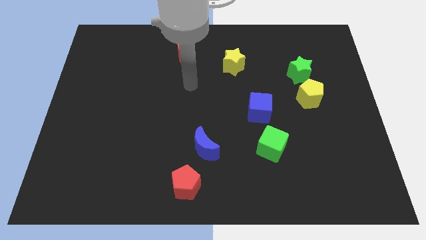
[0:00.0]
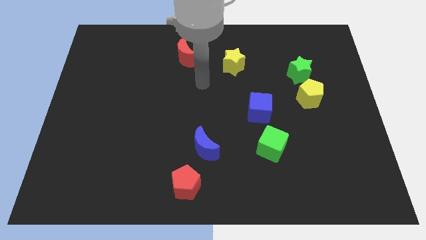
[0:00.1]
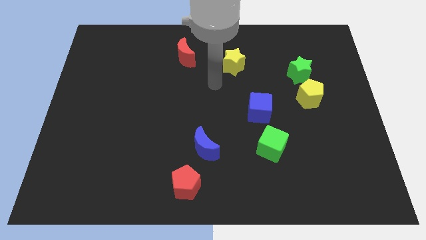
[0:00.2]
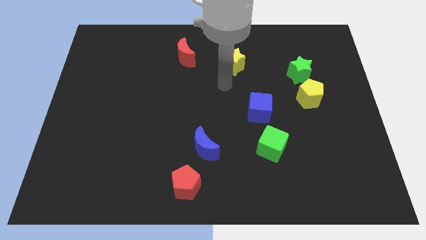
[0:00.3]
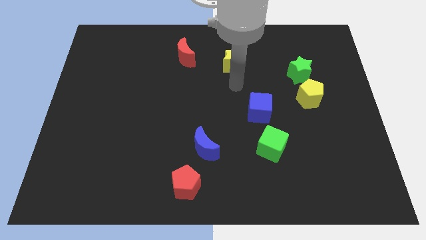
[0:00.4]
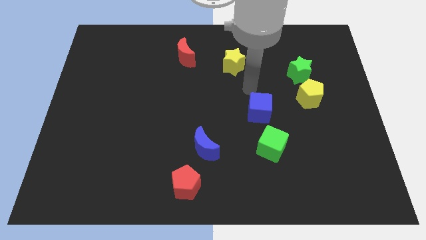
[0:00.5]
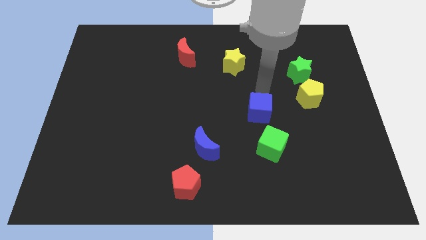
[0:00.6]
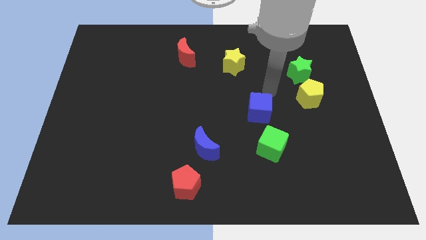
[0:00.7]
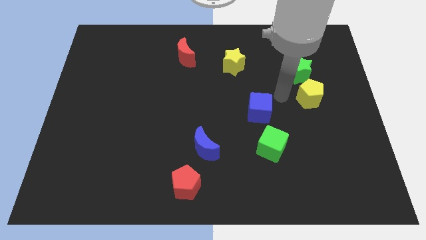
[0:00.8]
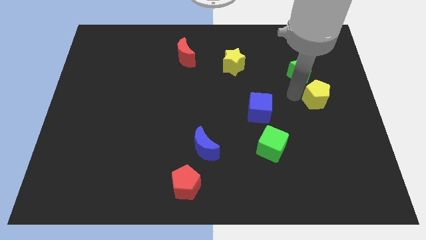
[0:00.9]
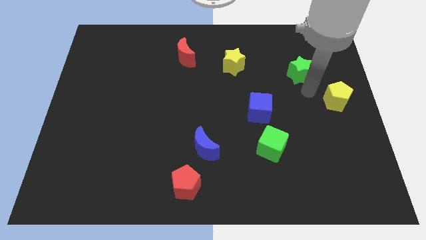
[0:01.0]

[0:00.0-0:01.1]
pull the green star apart from the yellow pentagon

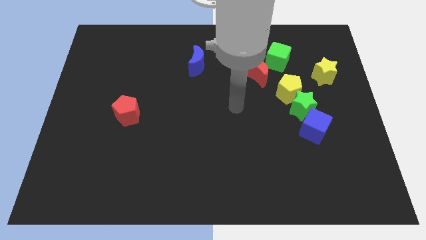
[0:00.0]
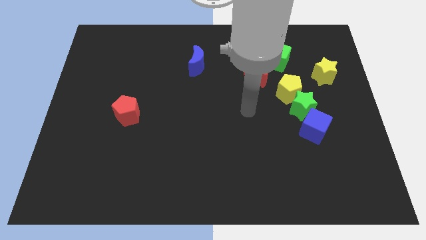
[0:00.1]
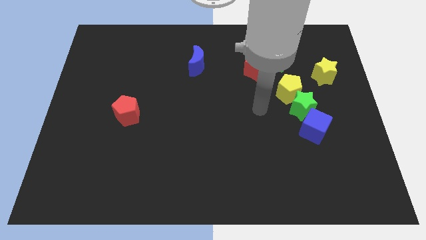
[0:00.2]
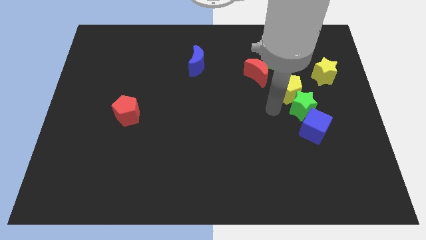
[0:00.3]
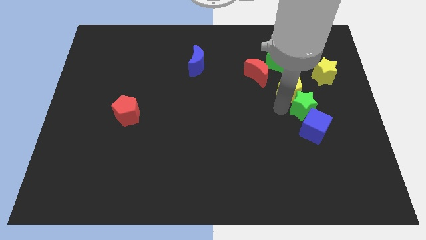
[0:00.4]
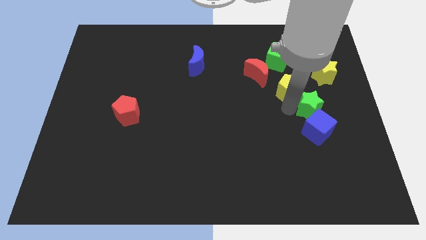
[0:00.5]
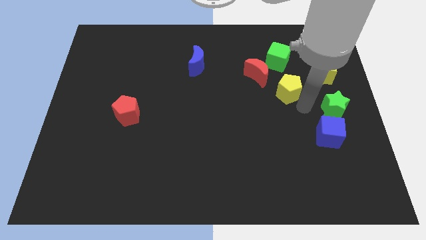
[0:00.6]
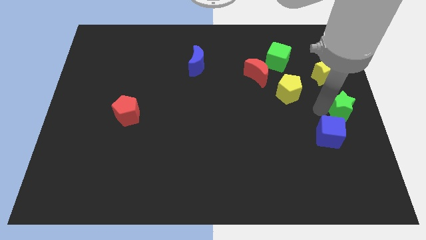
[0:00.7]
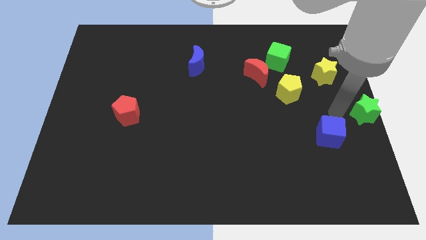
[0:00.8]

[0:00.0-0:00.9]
separate the blue cube from the green star

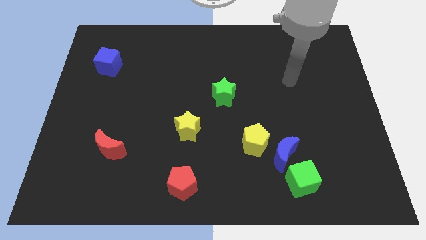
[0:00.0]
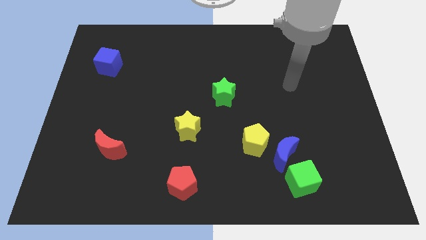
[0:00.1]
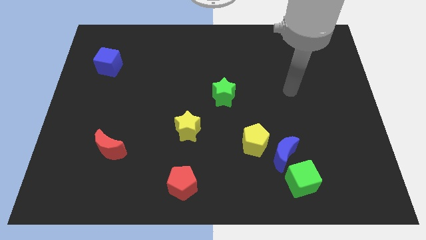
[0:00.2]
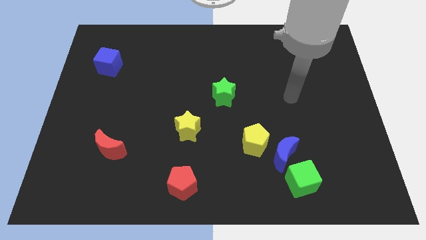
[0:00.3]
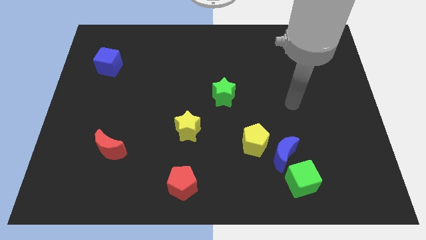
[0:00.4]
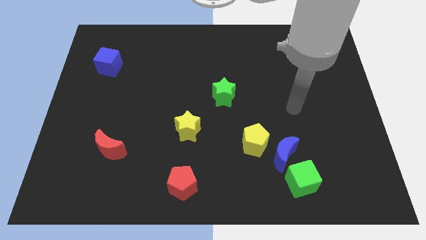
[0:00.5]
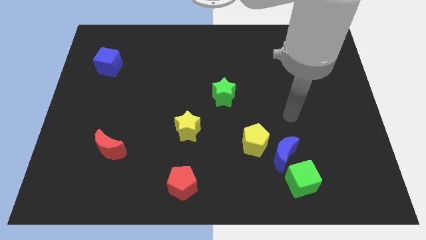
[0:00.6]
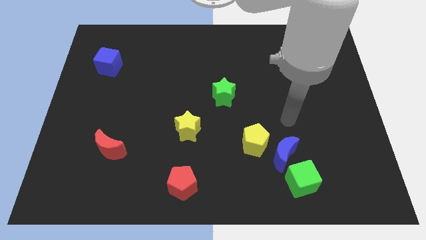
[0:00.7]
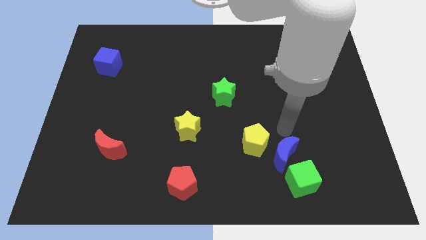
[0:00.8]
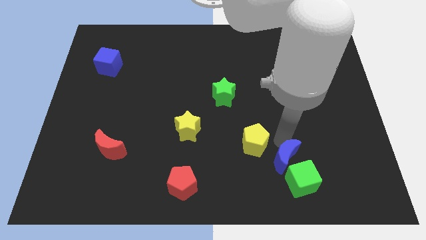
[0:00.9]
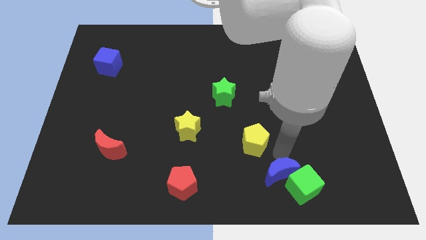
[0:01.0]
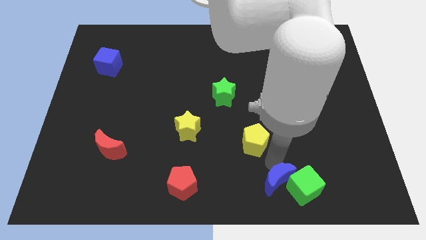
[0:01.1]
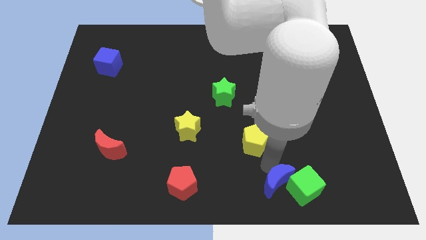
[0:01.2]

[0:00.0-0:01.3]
move the yellow pentagon away from the blue moon

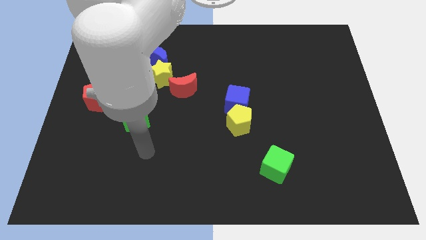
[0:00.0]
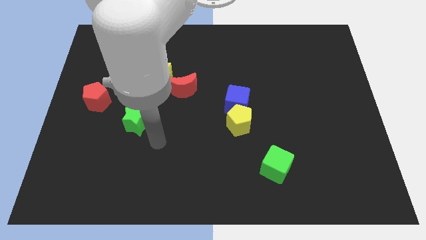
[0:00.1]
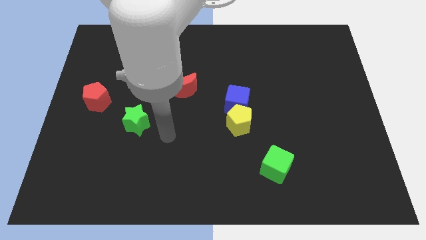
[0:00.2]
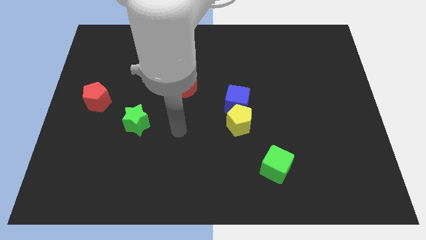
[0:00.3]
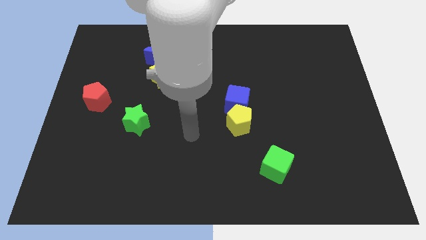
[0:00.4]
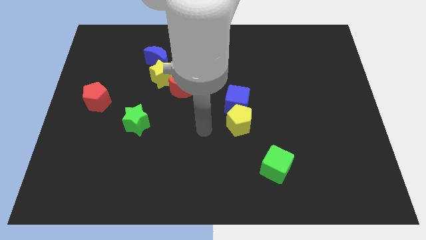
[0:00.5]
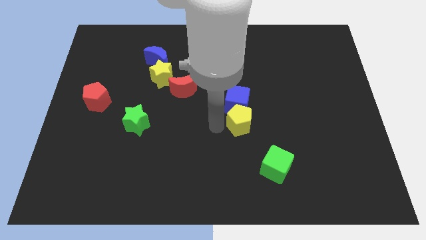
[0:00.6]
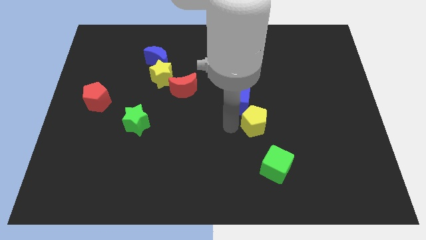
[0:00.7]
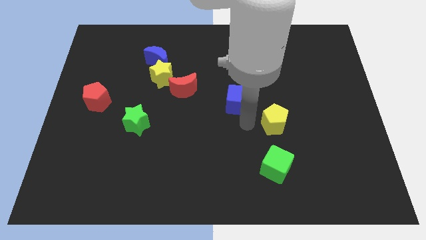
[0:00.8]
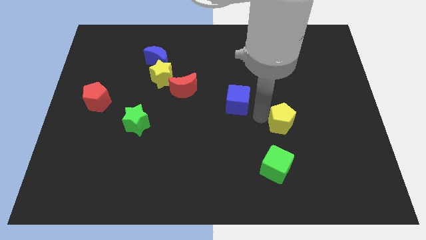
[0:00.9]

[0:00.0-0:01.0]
move the blue cube away from the yellow pentagon

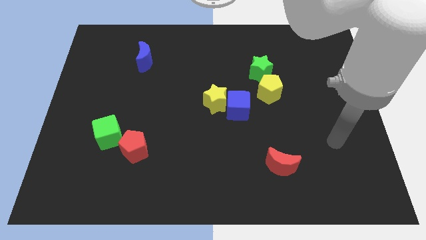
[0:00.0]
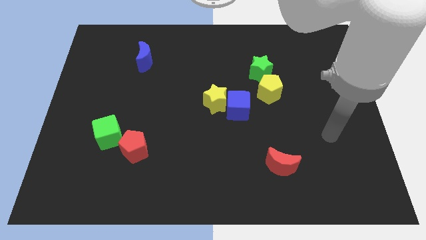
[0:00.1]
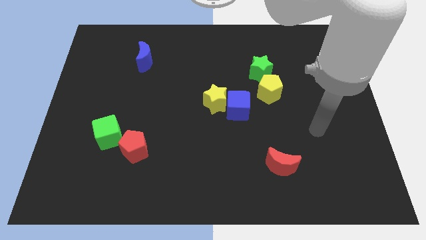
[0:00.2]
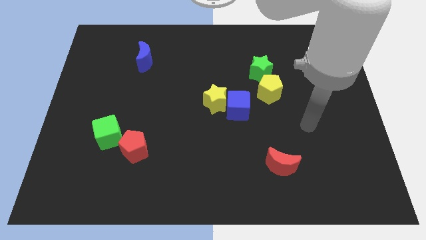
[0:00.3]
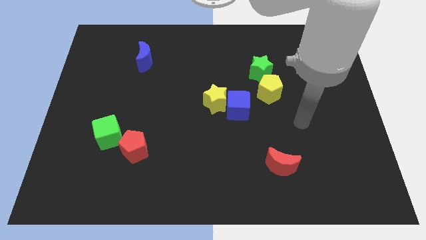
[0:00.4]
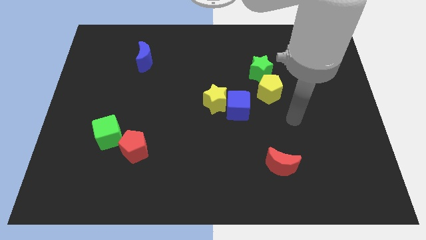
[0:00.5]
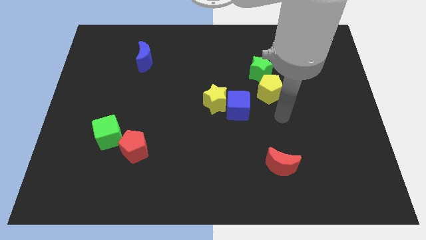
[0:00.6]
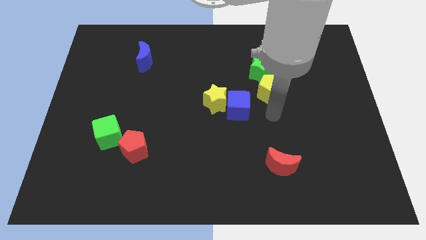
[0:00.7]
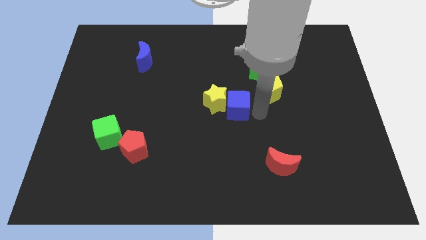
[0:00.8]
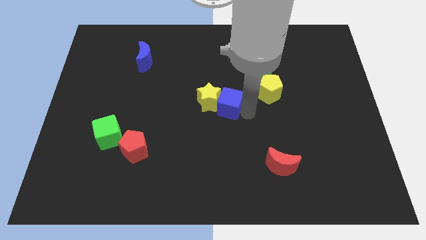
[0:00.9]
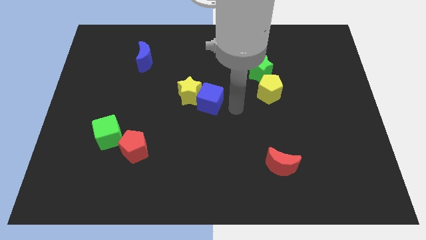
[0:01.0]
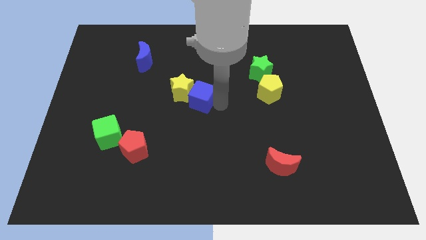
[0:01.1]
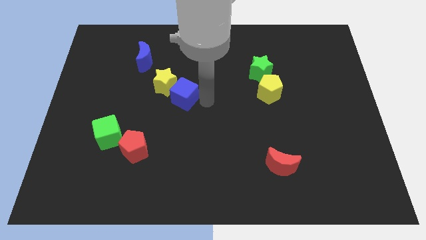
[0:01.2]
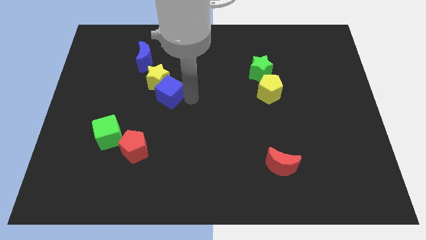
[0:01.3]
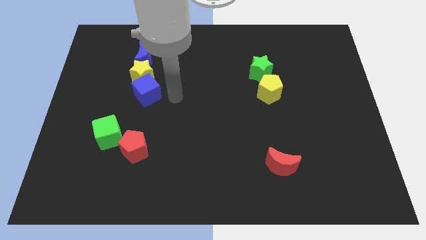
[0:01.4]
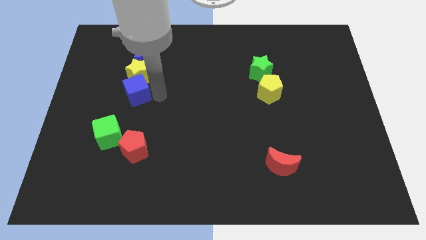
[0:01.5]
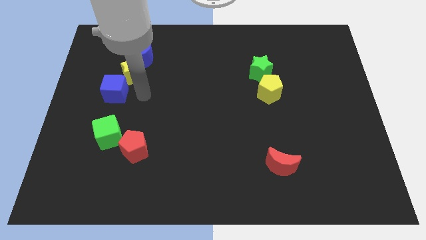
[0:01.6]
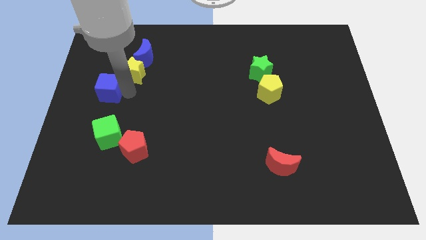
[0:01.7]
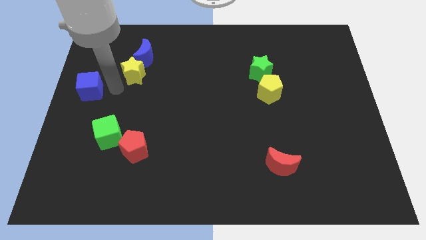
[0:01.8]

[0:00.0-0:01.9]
pull the yellow star apart from the blue cube

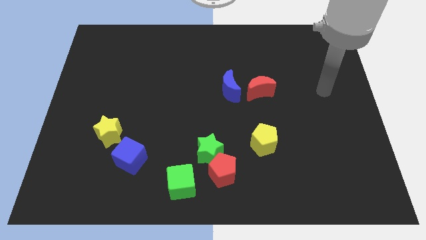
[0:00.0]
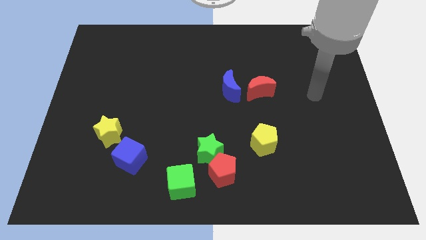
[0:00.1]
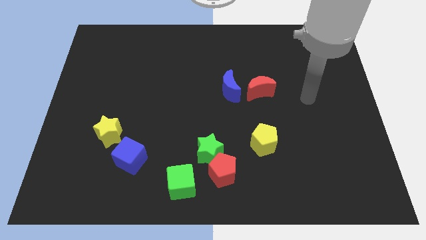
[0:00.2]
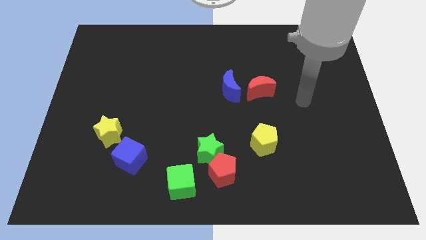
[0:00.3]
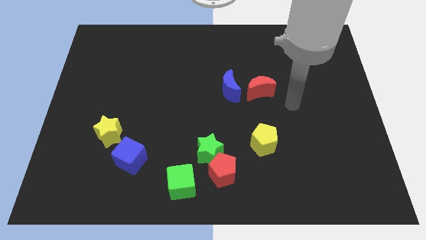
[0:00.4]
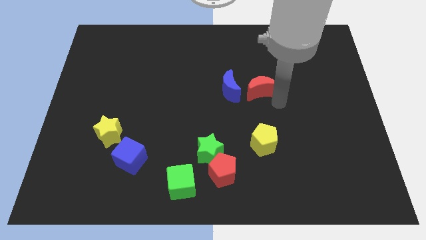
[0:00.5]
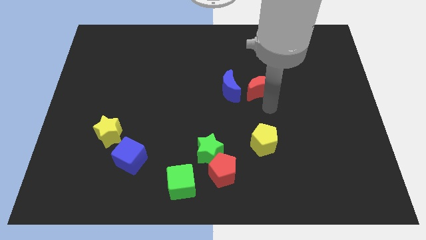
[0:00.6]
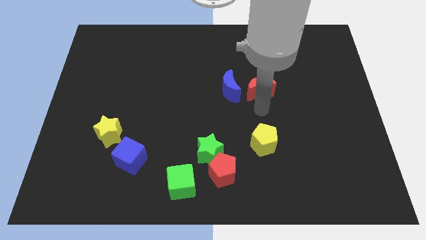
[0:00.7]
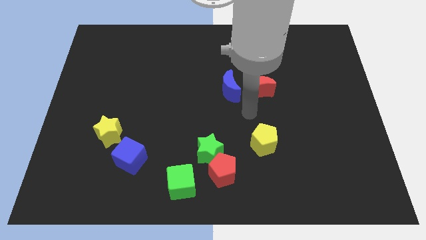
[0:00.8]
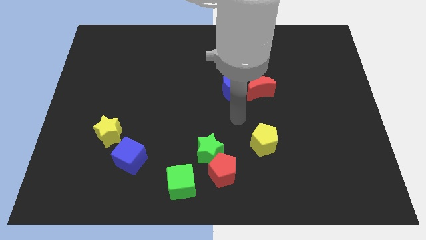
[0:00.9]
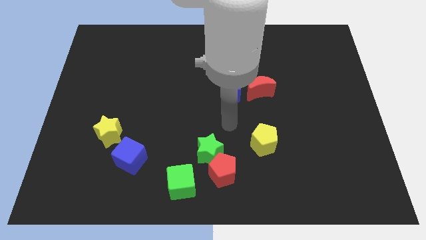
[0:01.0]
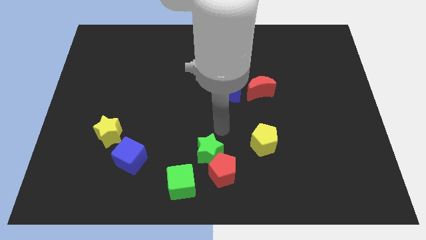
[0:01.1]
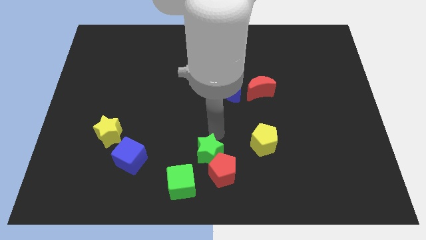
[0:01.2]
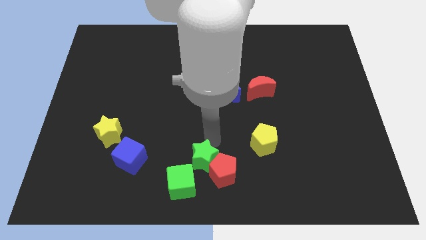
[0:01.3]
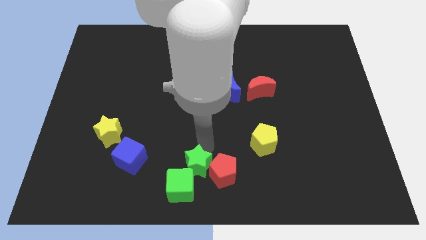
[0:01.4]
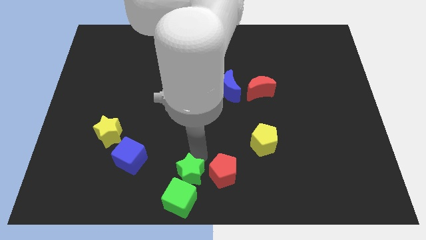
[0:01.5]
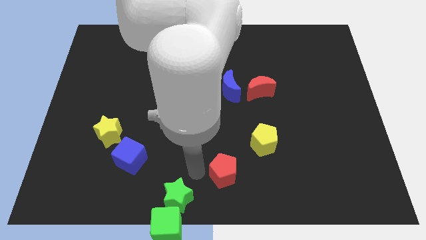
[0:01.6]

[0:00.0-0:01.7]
pull the red pentagon apart from the green star and green cube

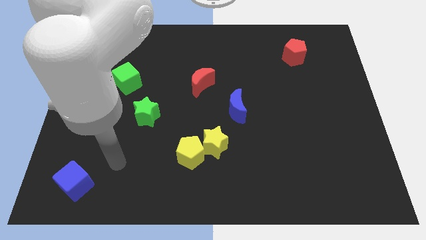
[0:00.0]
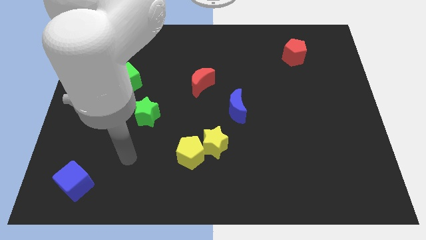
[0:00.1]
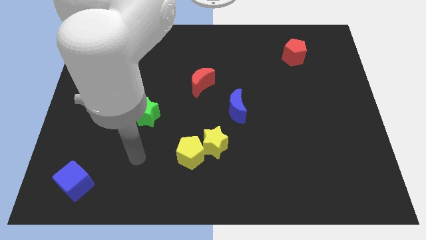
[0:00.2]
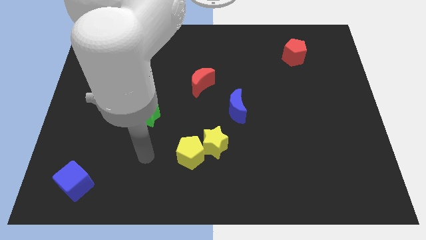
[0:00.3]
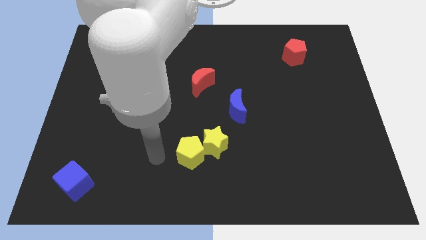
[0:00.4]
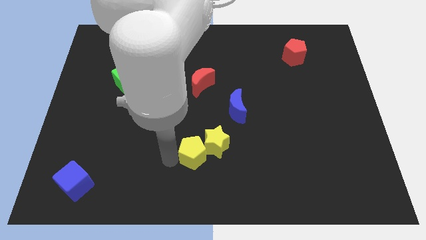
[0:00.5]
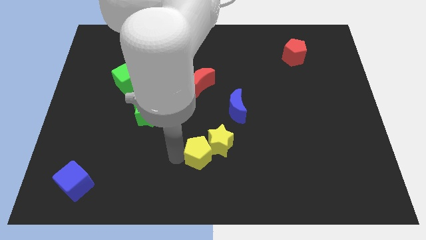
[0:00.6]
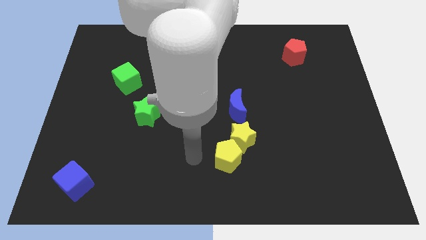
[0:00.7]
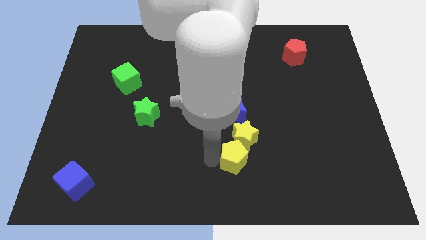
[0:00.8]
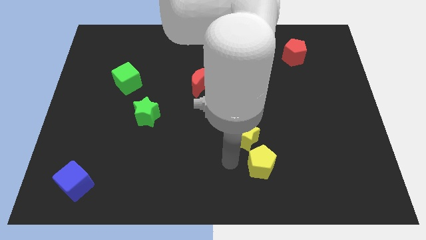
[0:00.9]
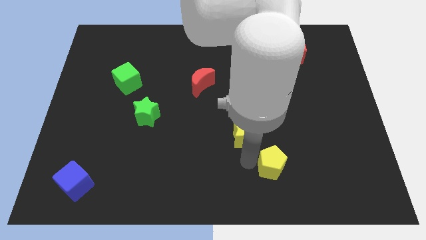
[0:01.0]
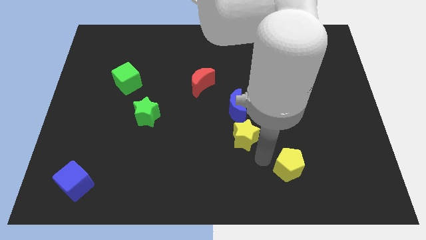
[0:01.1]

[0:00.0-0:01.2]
separate the yellow star from the yellow pentagon
